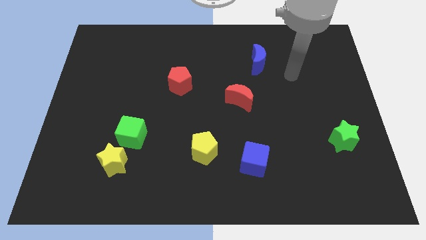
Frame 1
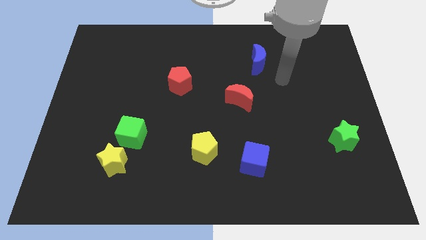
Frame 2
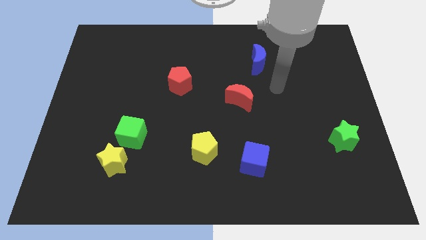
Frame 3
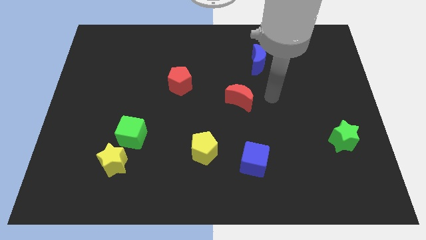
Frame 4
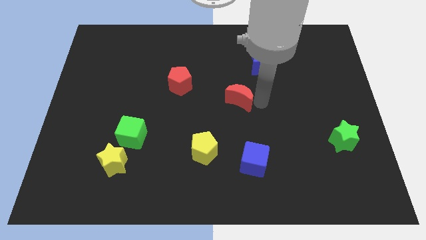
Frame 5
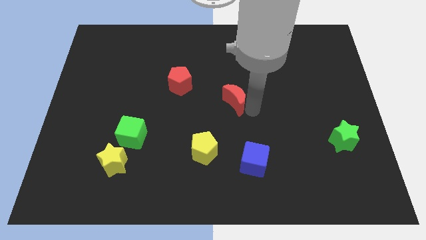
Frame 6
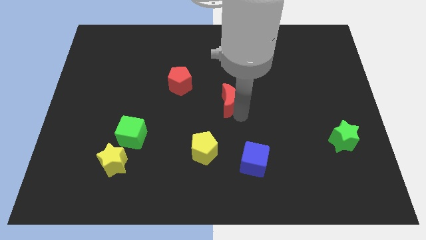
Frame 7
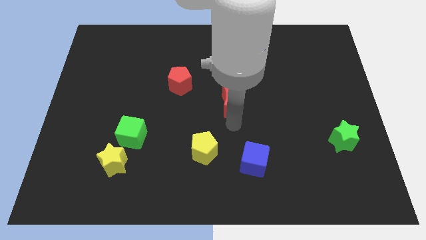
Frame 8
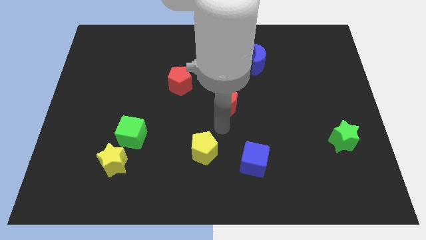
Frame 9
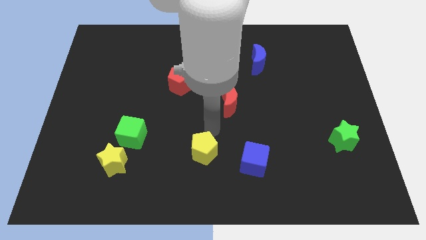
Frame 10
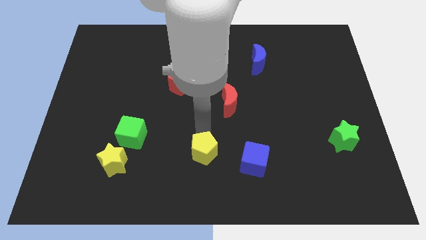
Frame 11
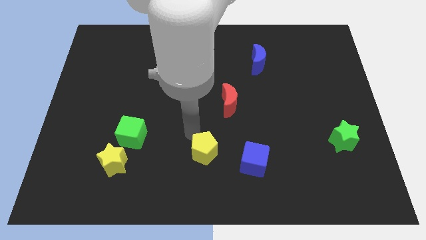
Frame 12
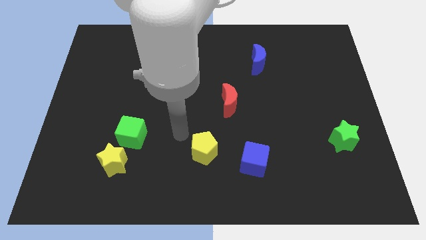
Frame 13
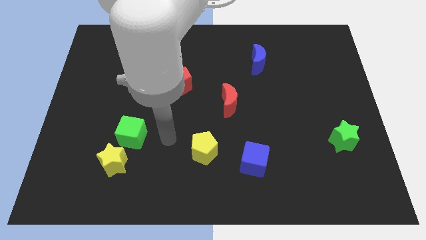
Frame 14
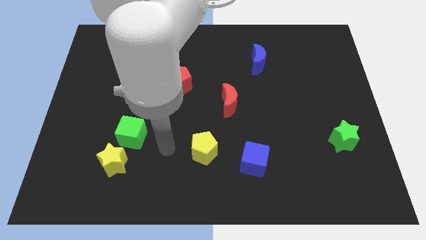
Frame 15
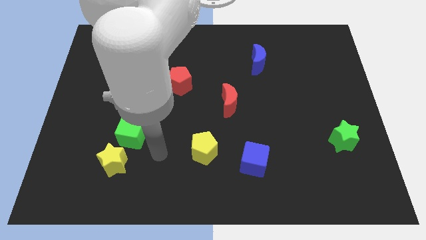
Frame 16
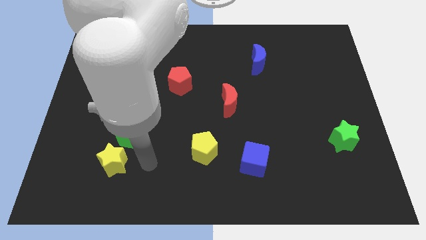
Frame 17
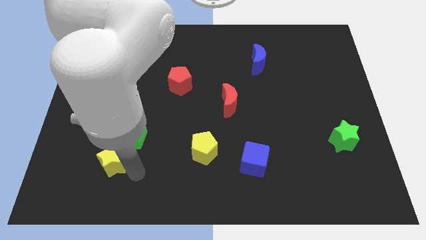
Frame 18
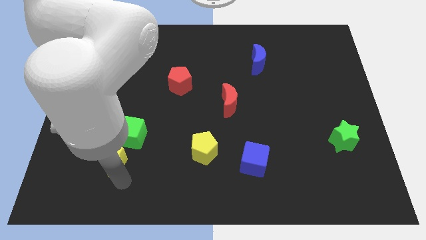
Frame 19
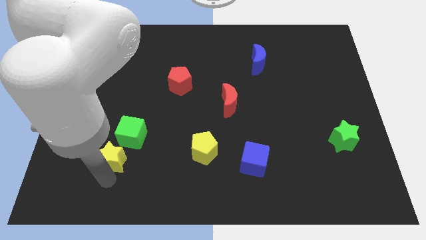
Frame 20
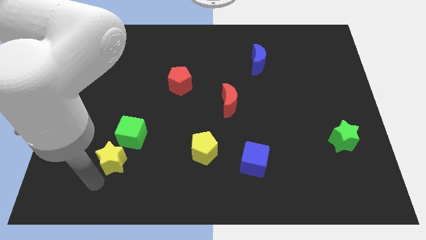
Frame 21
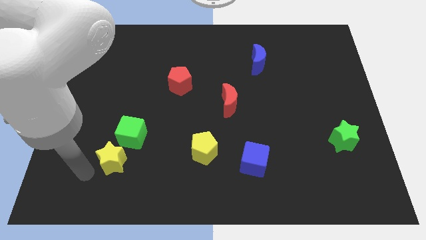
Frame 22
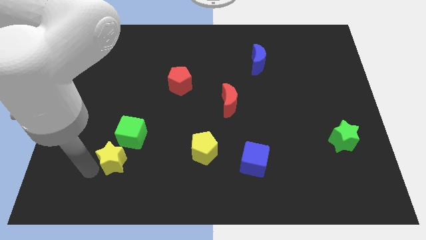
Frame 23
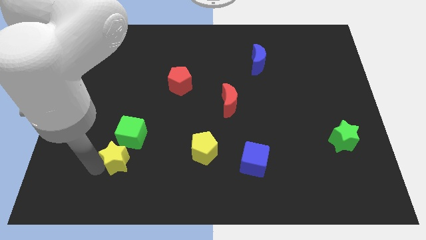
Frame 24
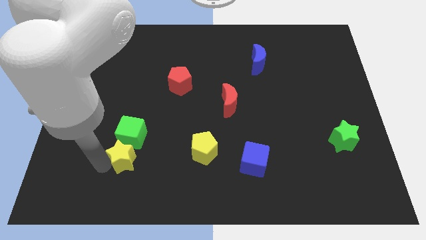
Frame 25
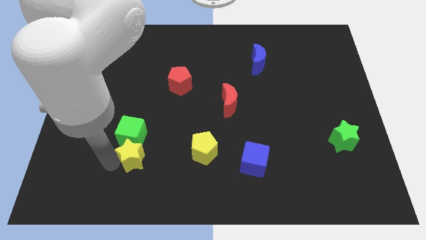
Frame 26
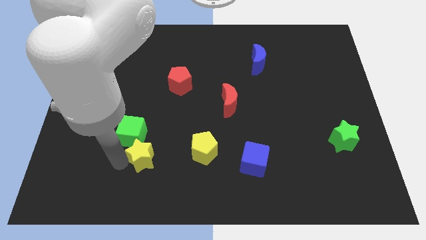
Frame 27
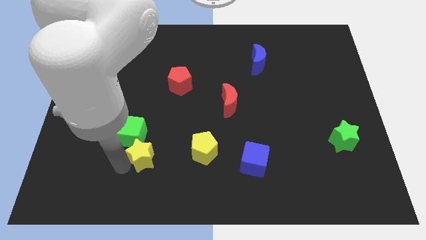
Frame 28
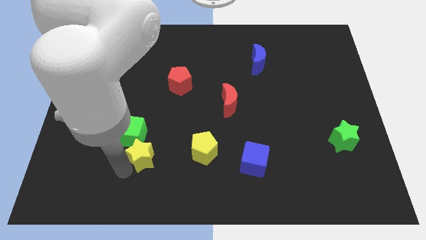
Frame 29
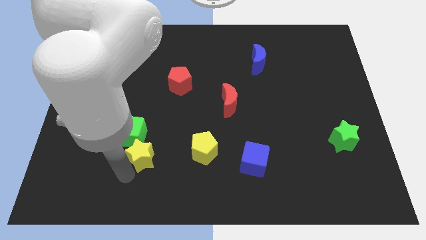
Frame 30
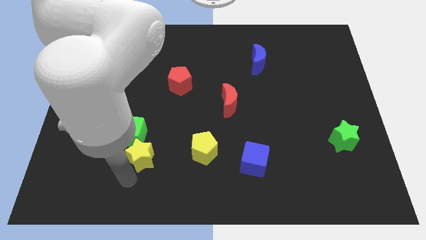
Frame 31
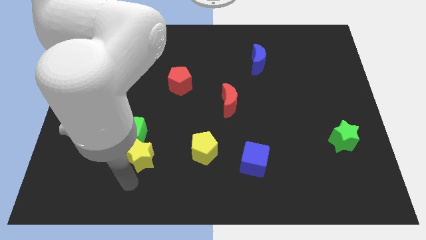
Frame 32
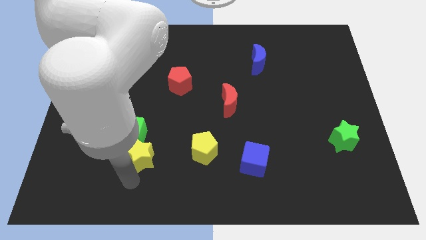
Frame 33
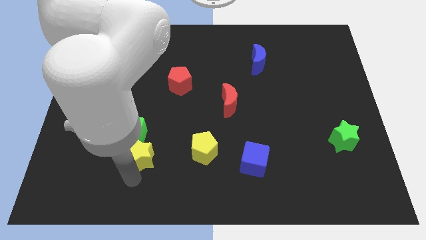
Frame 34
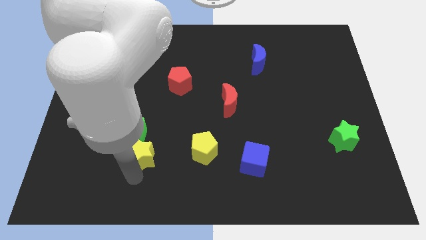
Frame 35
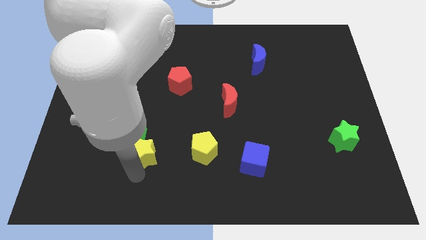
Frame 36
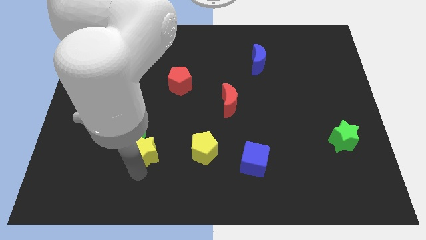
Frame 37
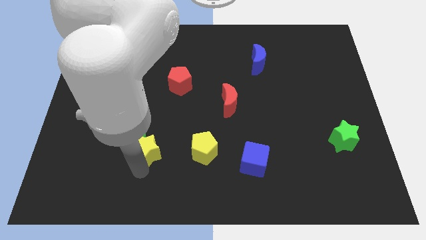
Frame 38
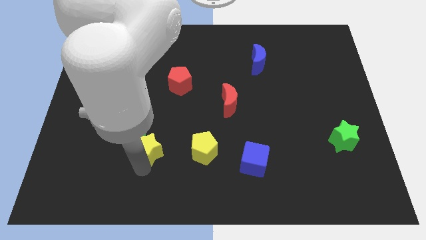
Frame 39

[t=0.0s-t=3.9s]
slide the yellow star up and then right a bit

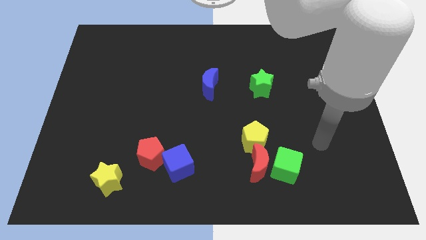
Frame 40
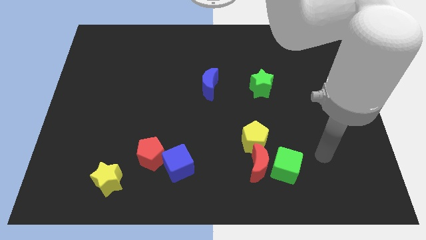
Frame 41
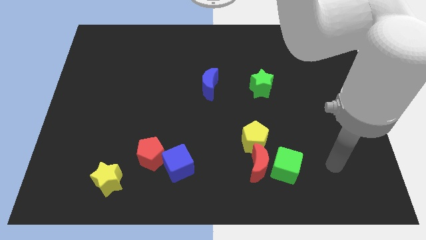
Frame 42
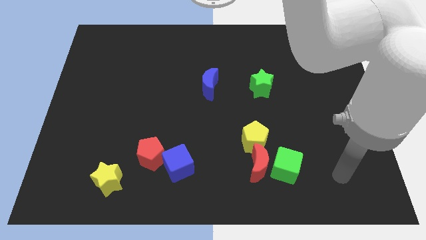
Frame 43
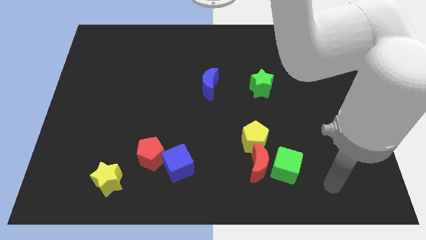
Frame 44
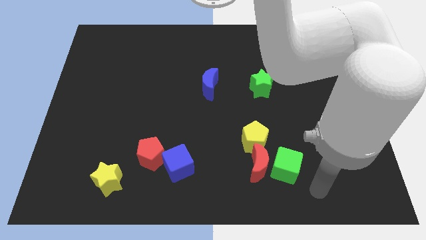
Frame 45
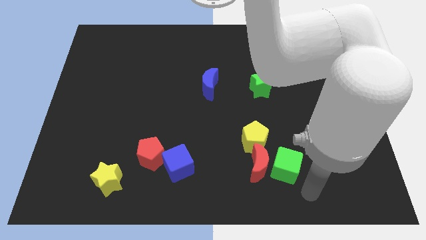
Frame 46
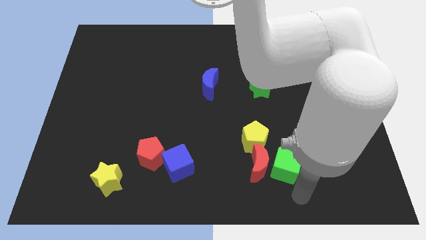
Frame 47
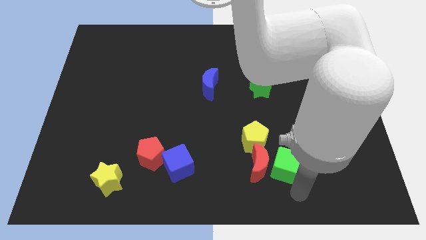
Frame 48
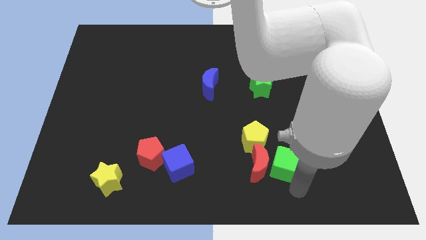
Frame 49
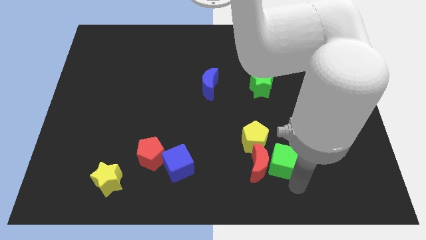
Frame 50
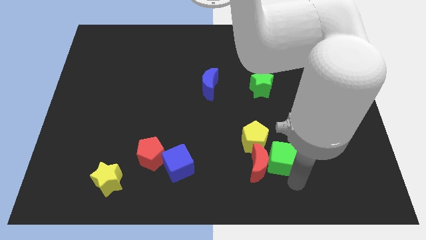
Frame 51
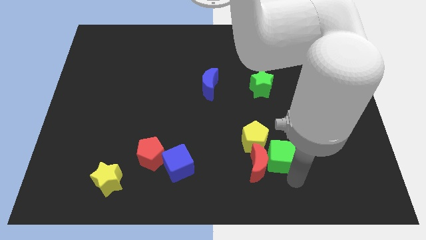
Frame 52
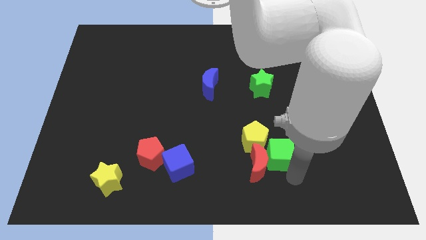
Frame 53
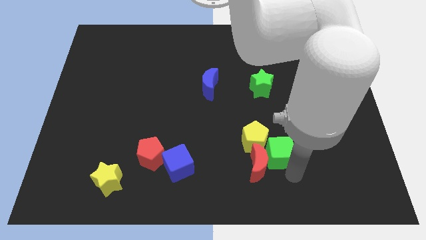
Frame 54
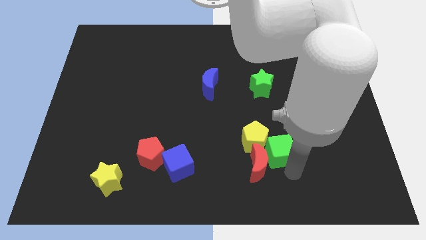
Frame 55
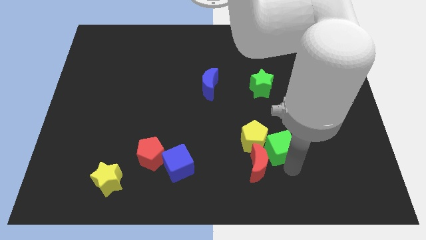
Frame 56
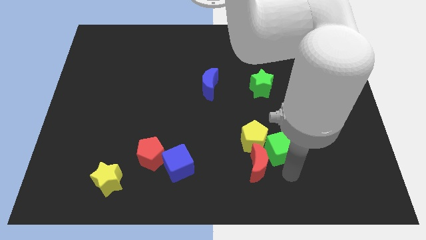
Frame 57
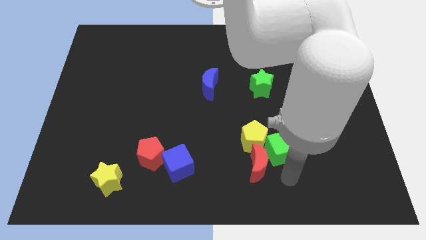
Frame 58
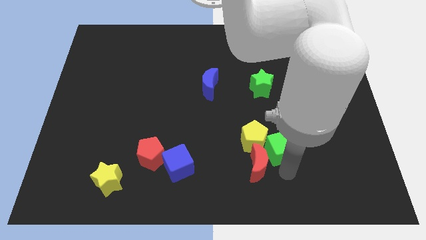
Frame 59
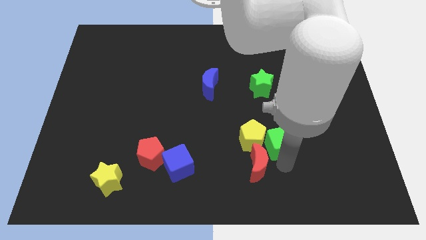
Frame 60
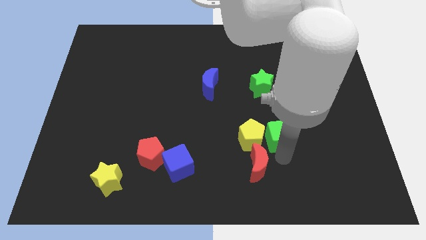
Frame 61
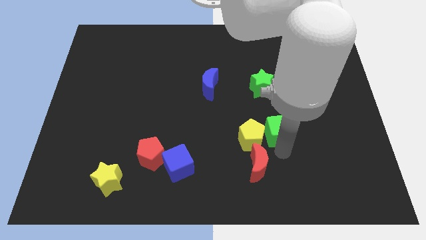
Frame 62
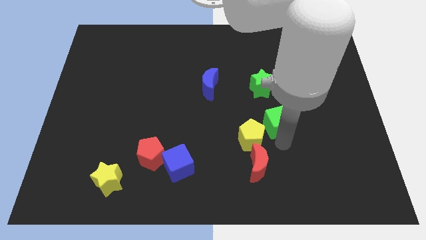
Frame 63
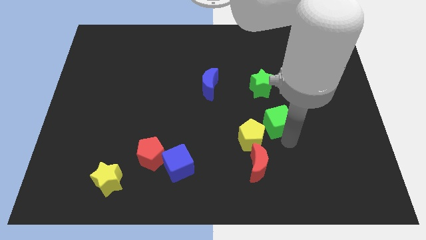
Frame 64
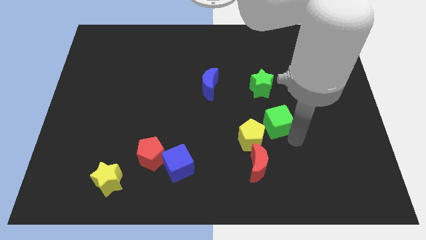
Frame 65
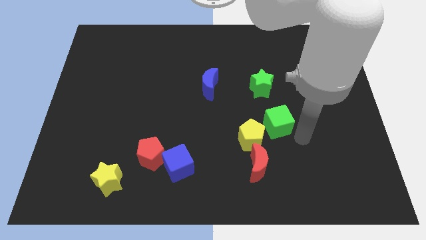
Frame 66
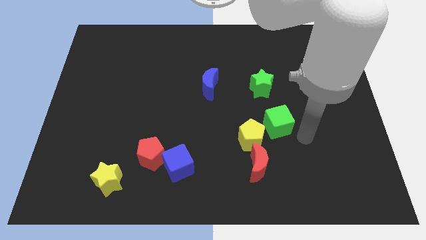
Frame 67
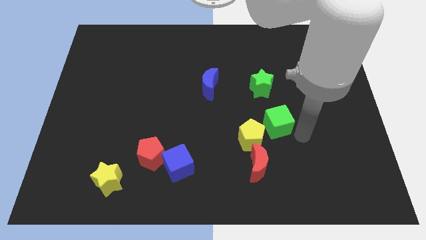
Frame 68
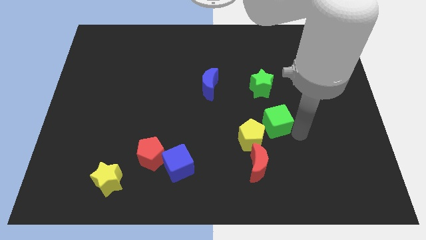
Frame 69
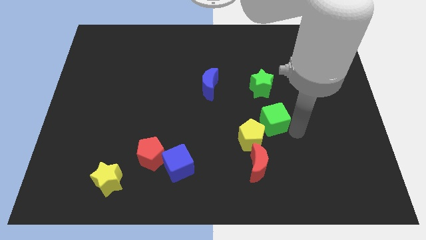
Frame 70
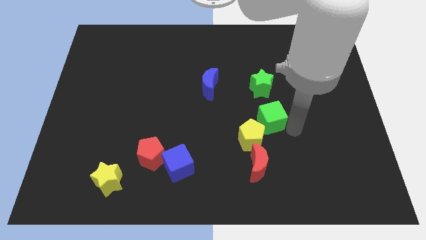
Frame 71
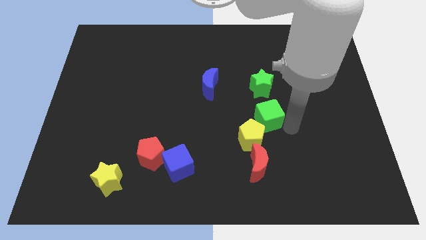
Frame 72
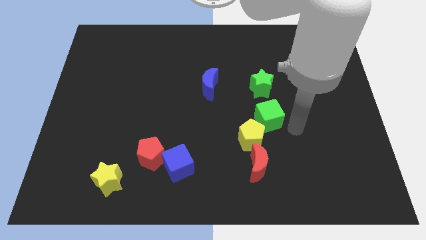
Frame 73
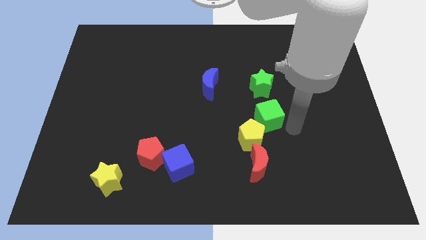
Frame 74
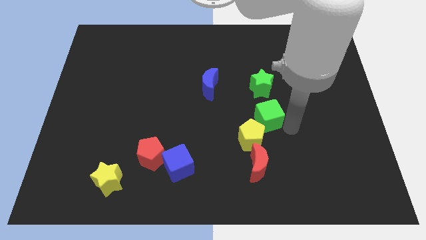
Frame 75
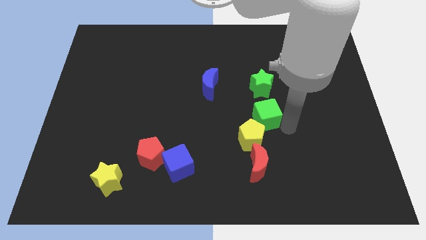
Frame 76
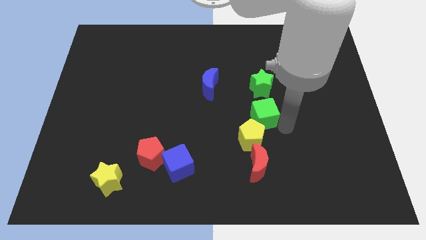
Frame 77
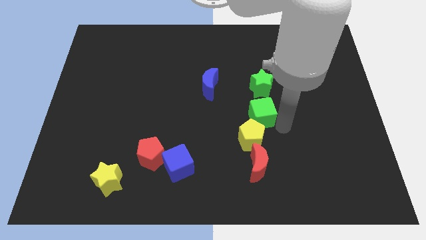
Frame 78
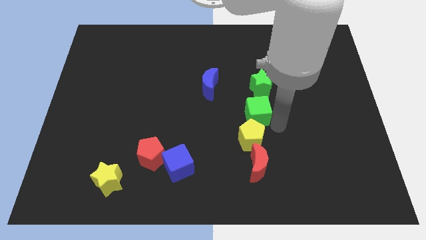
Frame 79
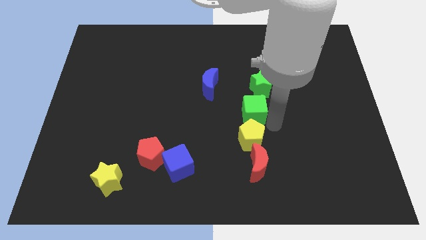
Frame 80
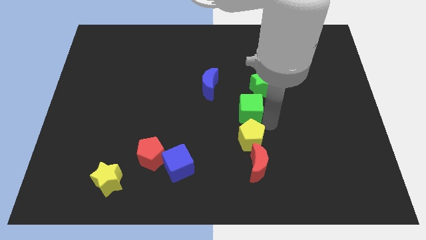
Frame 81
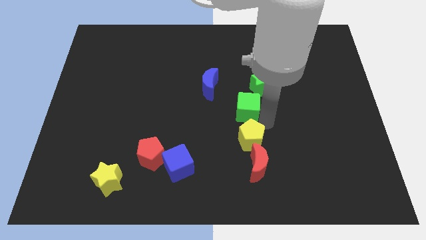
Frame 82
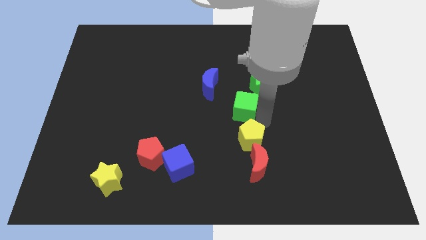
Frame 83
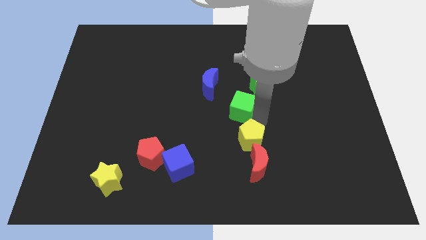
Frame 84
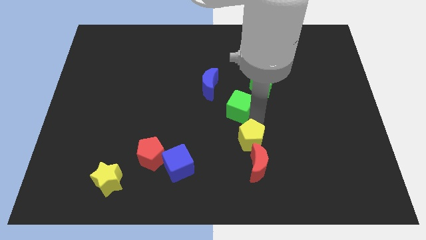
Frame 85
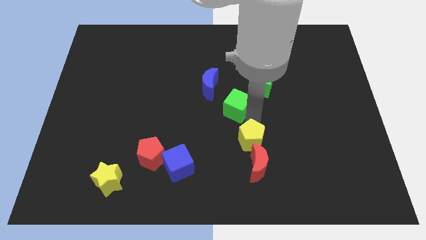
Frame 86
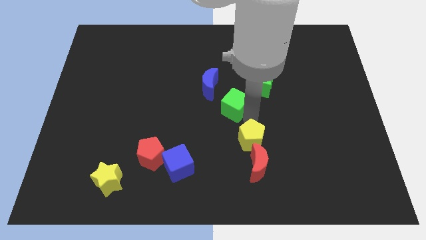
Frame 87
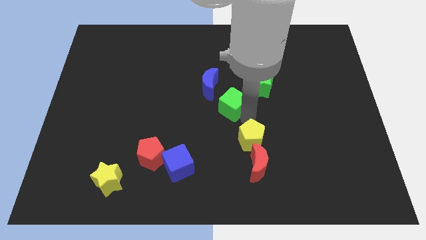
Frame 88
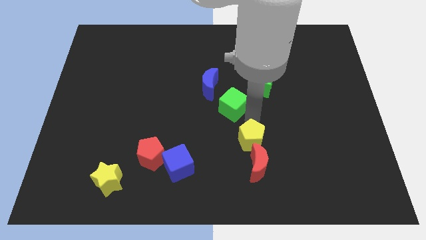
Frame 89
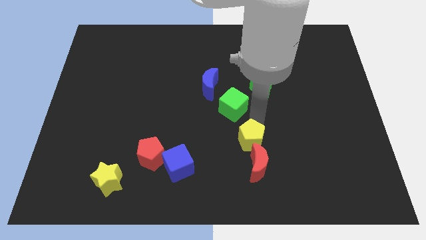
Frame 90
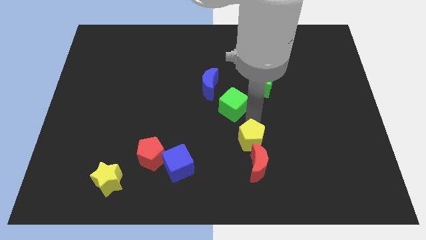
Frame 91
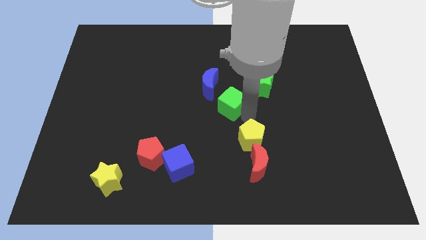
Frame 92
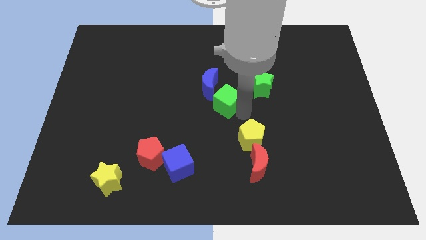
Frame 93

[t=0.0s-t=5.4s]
slide the green cube up and to the left
